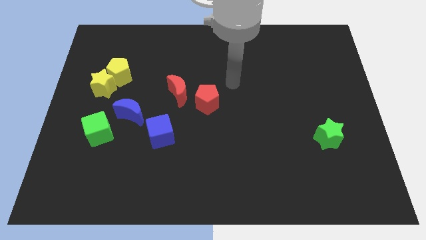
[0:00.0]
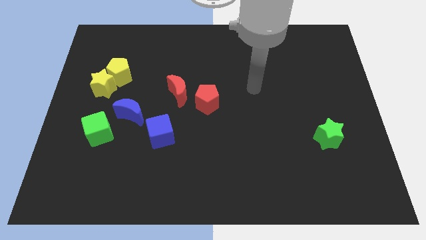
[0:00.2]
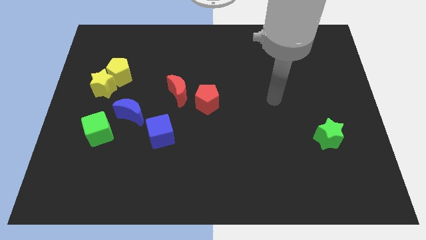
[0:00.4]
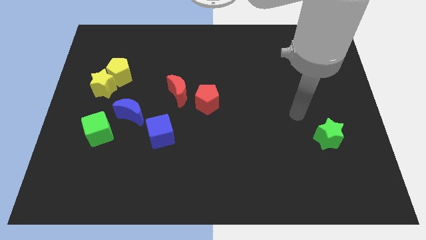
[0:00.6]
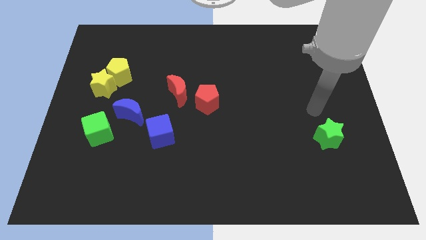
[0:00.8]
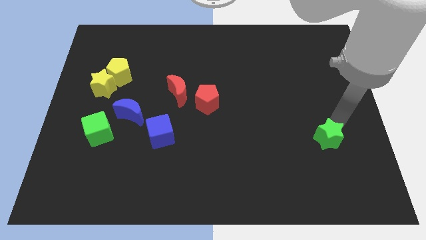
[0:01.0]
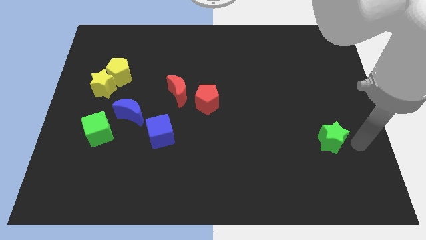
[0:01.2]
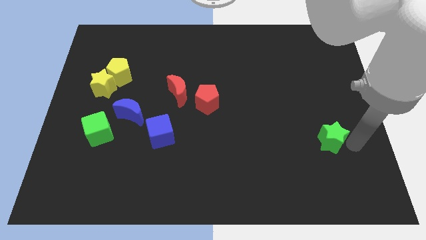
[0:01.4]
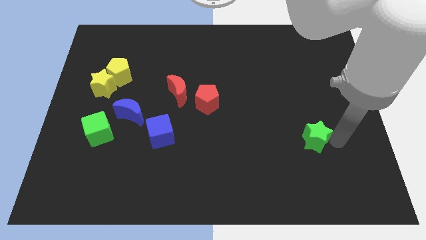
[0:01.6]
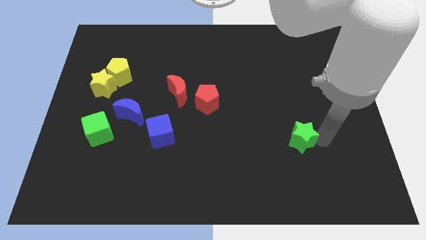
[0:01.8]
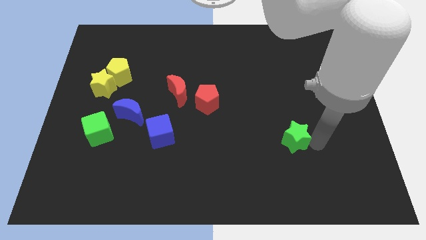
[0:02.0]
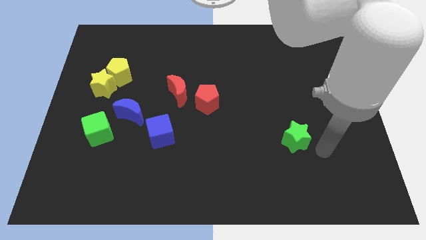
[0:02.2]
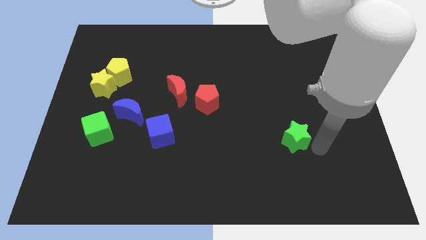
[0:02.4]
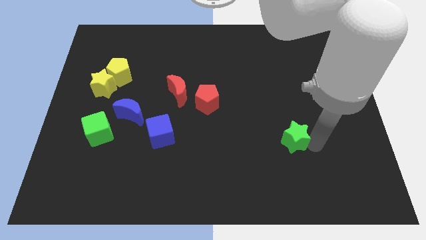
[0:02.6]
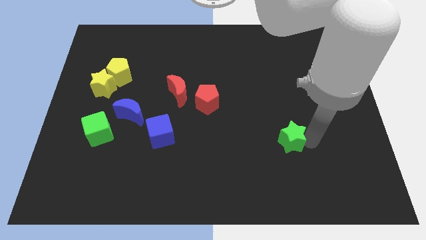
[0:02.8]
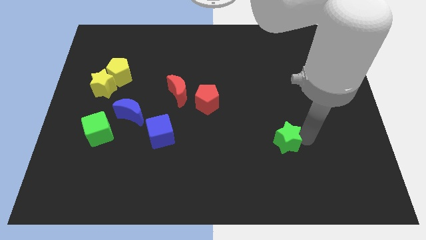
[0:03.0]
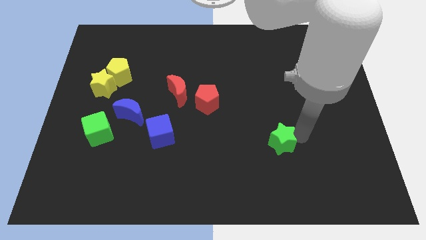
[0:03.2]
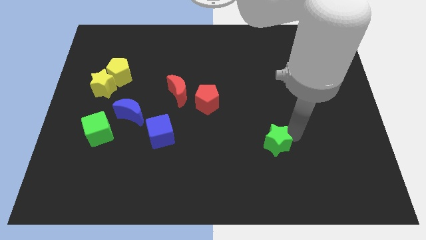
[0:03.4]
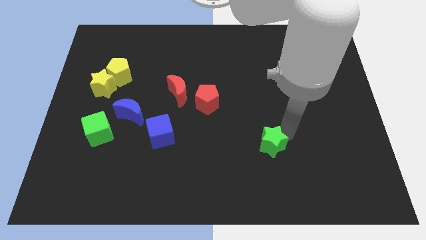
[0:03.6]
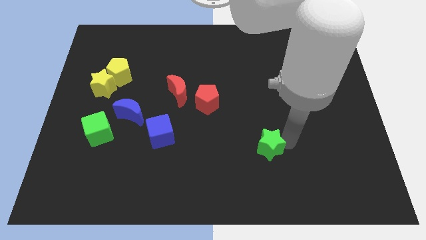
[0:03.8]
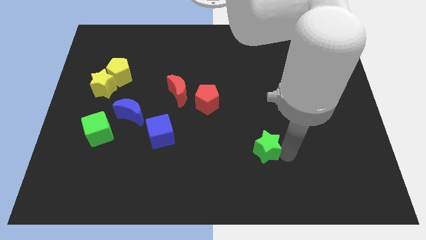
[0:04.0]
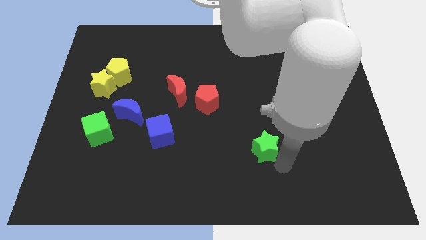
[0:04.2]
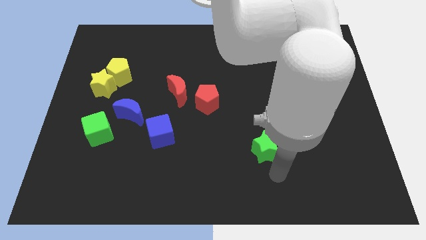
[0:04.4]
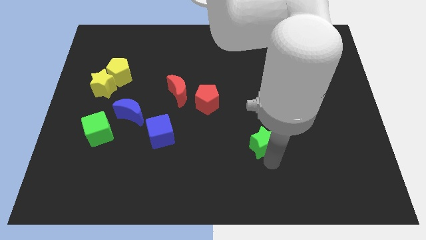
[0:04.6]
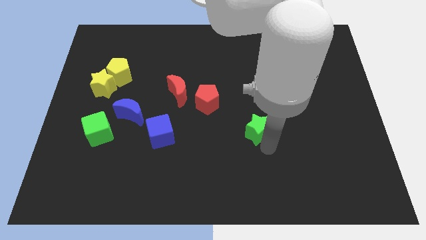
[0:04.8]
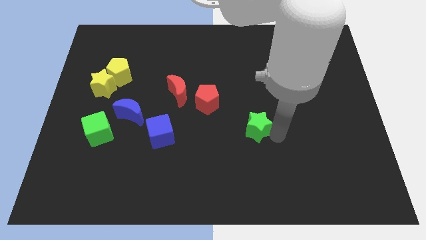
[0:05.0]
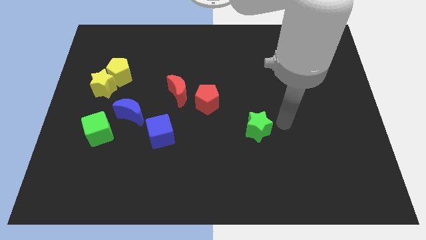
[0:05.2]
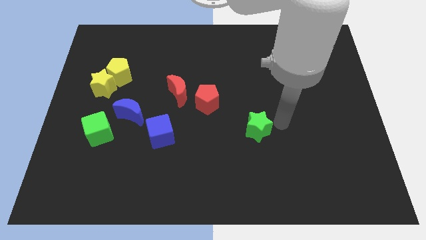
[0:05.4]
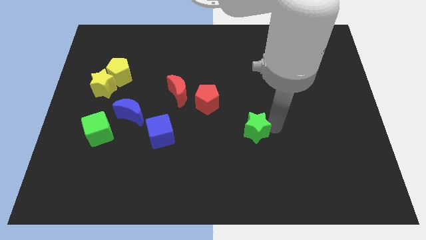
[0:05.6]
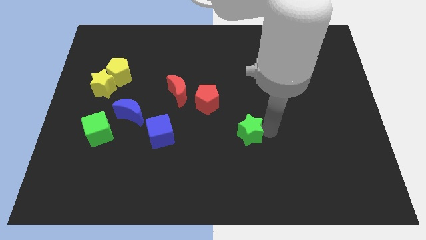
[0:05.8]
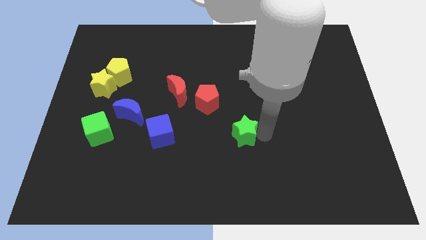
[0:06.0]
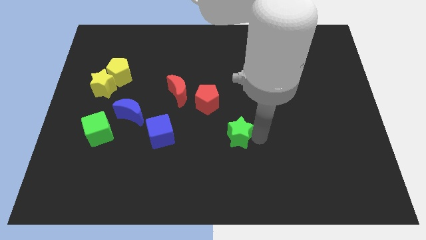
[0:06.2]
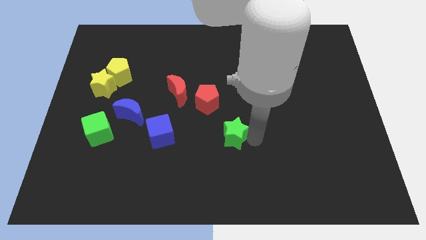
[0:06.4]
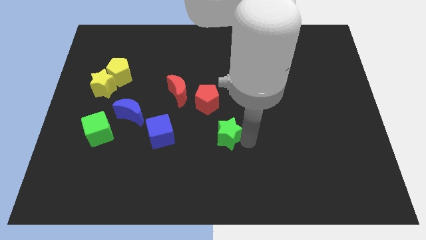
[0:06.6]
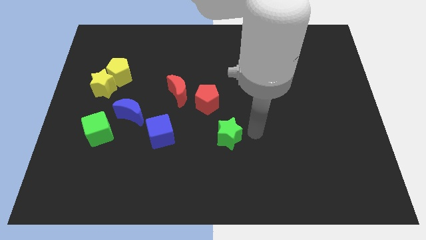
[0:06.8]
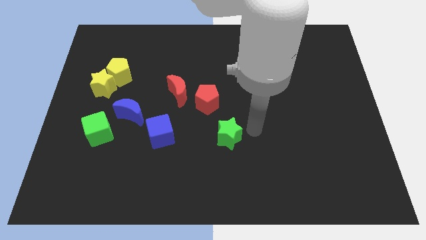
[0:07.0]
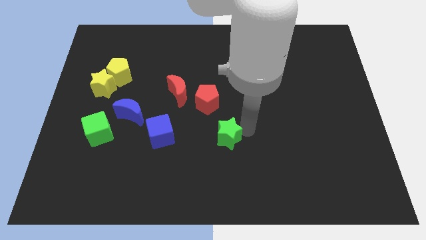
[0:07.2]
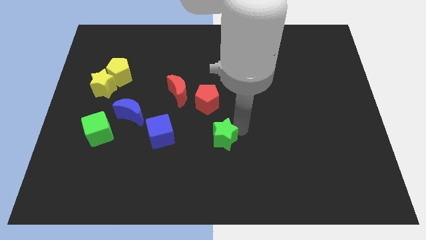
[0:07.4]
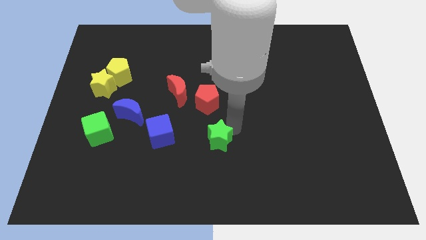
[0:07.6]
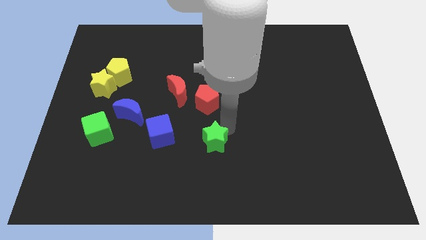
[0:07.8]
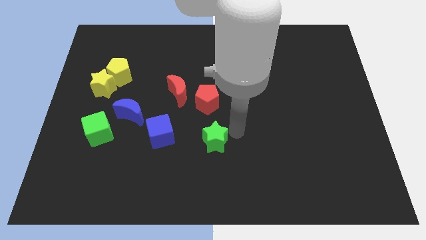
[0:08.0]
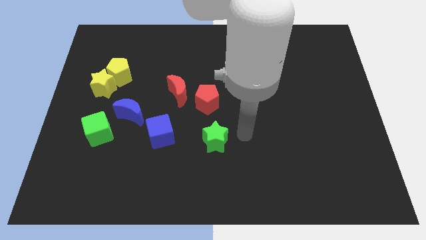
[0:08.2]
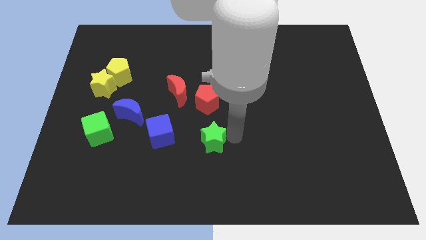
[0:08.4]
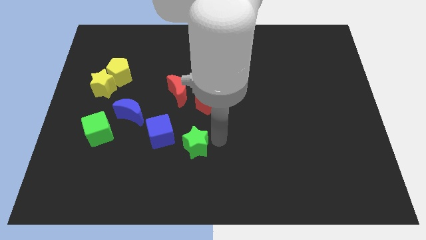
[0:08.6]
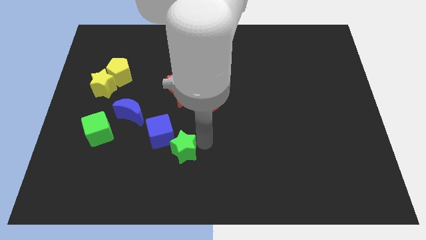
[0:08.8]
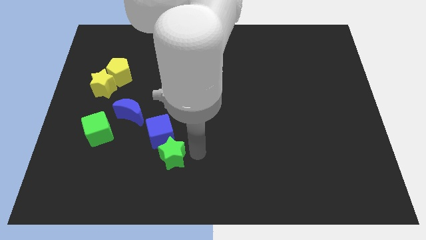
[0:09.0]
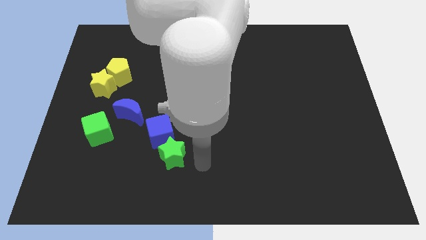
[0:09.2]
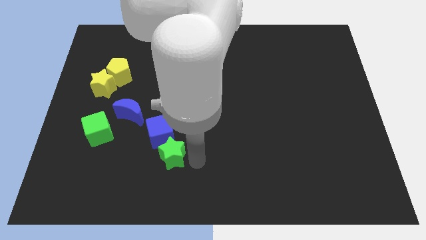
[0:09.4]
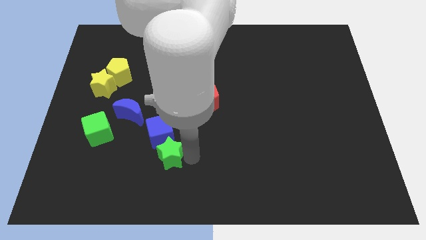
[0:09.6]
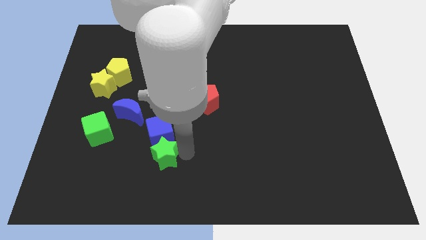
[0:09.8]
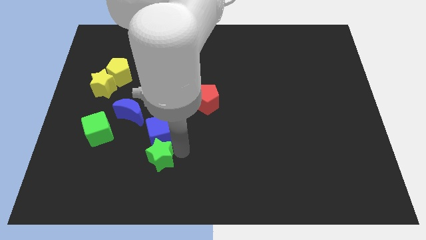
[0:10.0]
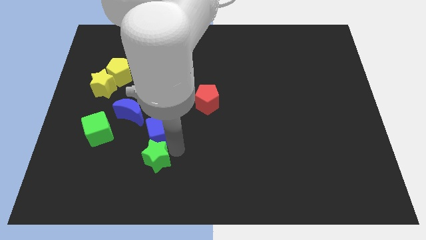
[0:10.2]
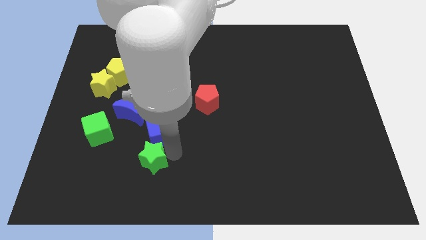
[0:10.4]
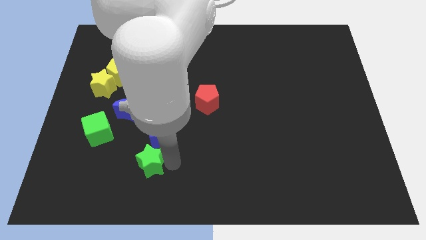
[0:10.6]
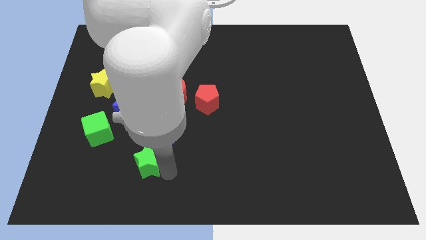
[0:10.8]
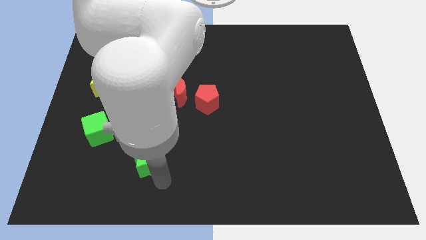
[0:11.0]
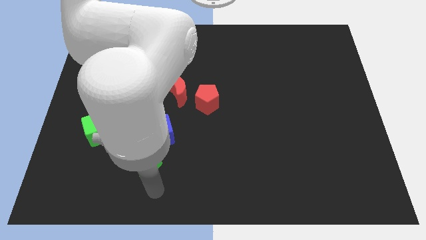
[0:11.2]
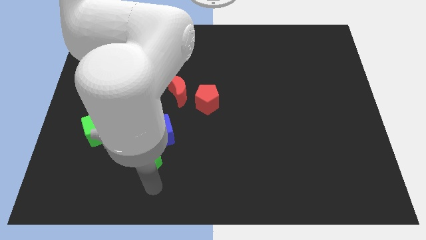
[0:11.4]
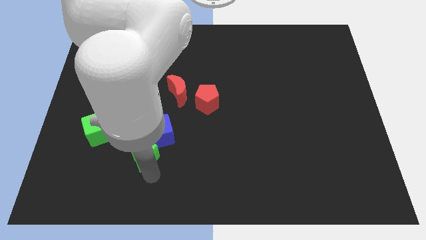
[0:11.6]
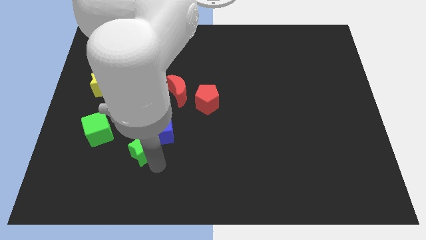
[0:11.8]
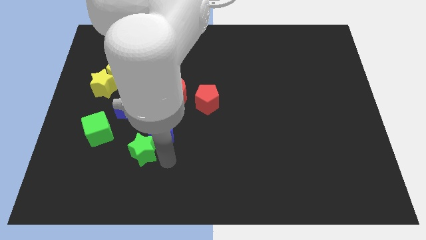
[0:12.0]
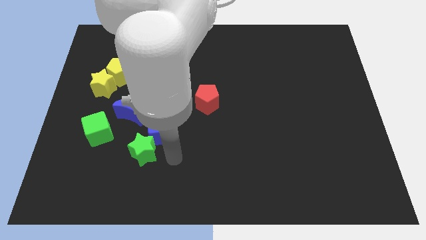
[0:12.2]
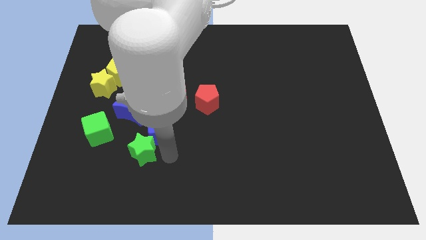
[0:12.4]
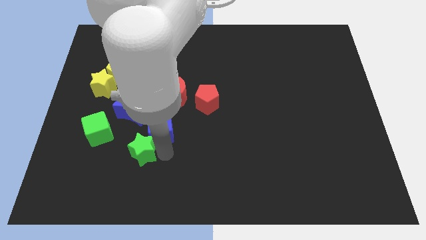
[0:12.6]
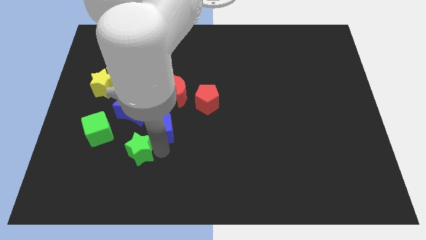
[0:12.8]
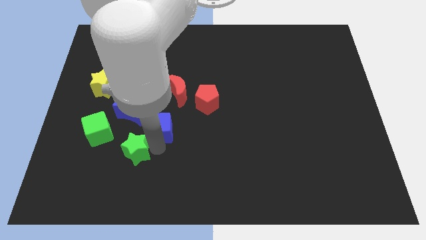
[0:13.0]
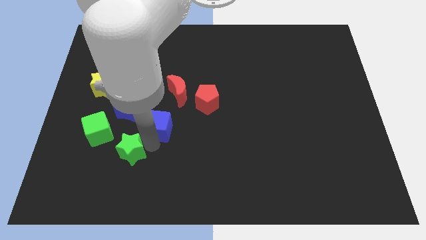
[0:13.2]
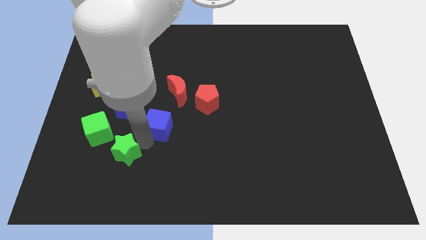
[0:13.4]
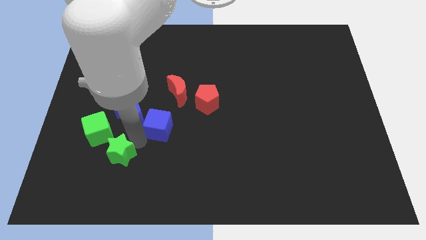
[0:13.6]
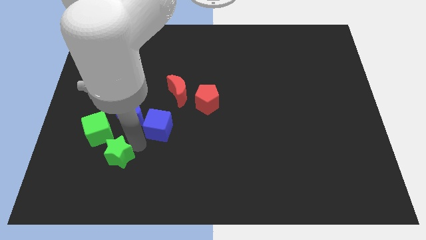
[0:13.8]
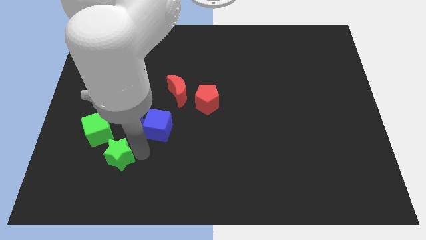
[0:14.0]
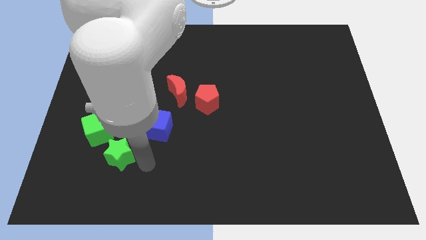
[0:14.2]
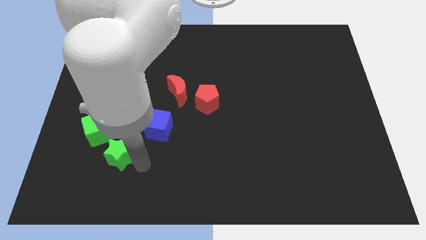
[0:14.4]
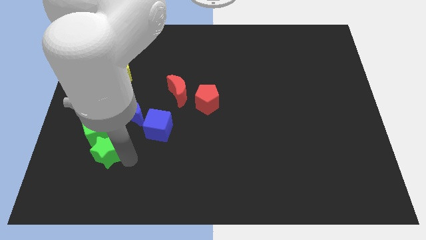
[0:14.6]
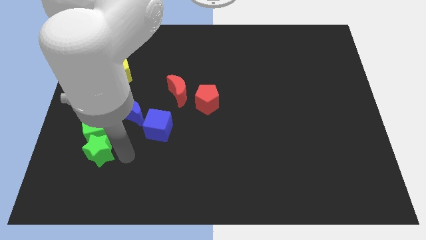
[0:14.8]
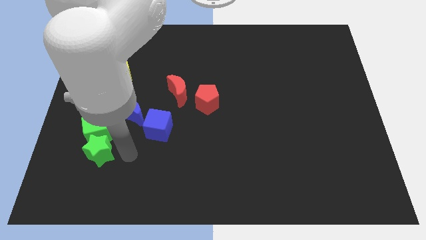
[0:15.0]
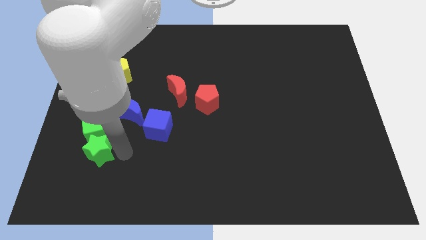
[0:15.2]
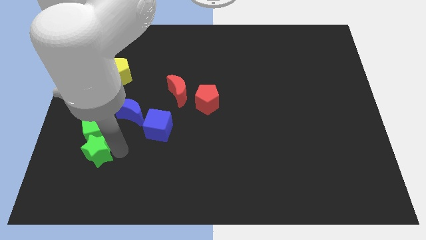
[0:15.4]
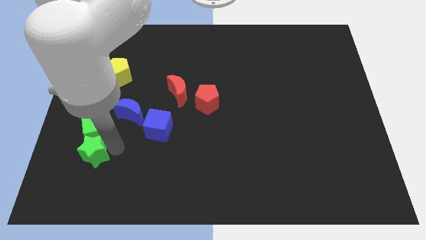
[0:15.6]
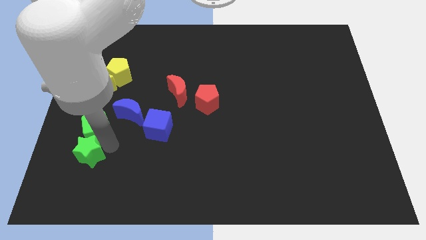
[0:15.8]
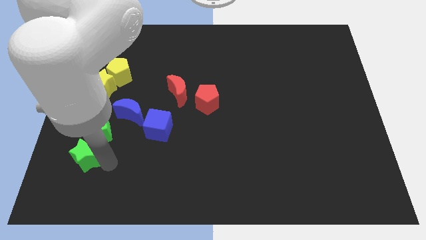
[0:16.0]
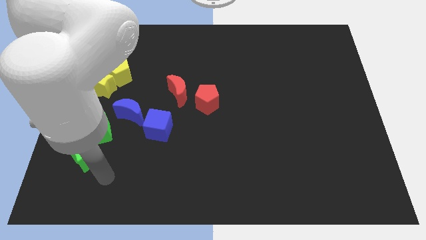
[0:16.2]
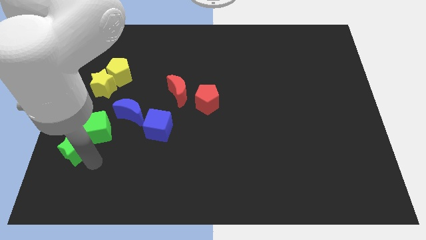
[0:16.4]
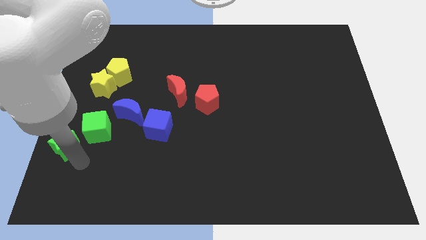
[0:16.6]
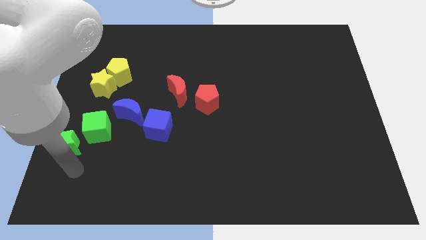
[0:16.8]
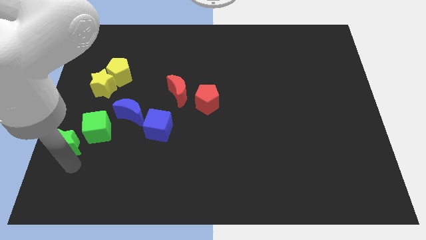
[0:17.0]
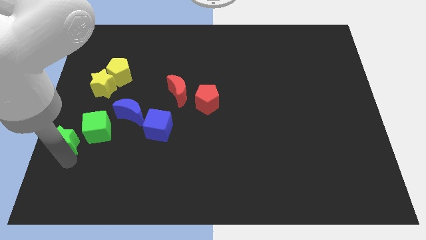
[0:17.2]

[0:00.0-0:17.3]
slide the green star to the left side
